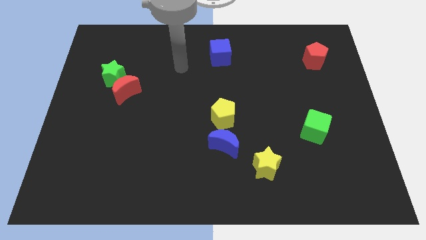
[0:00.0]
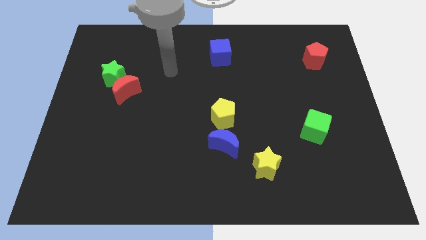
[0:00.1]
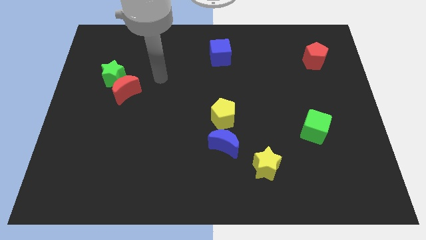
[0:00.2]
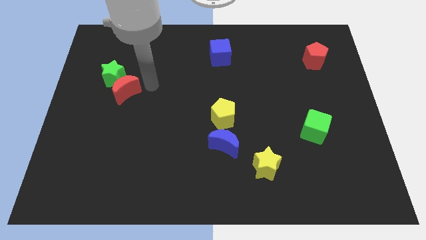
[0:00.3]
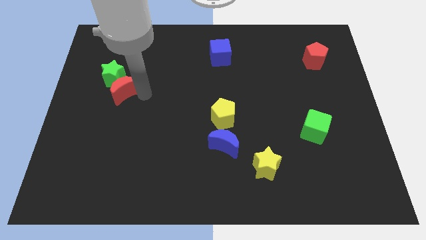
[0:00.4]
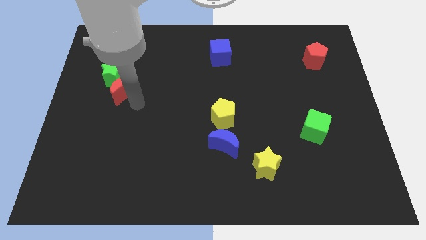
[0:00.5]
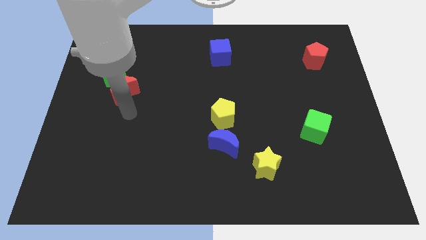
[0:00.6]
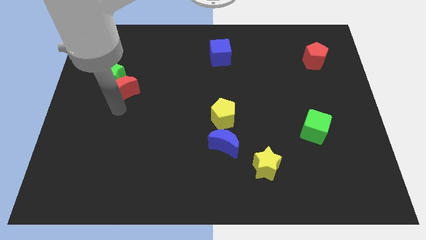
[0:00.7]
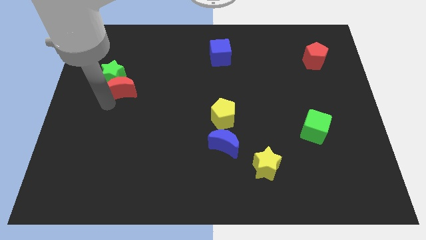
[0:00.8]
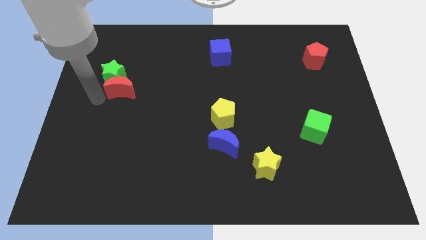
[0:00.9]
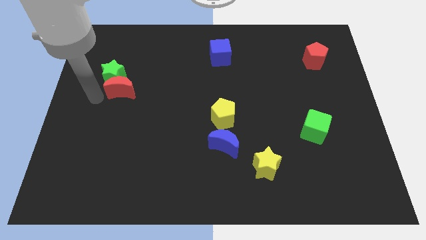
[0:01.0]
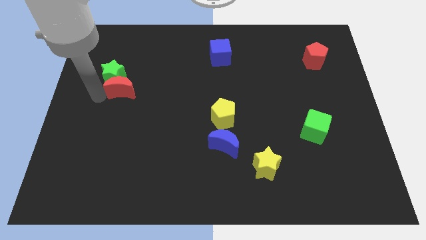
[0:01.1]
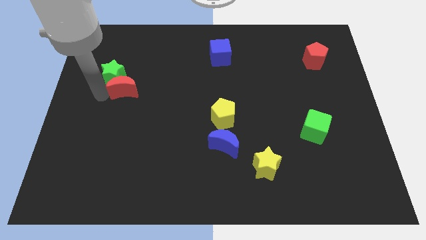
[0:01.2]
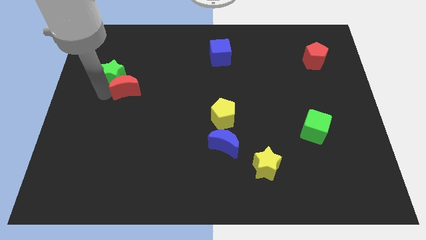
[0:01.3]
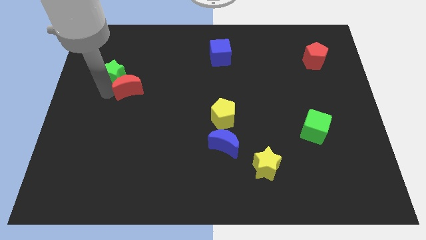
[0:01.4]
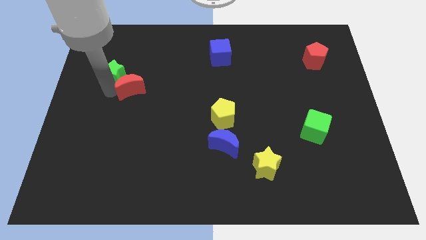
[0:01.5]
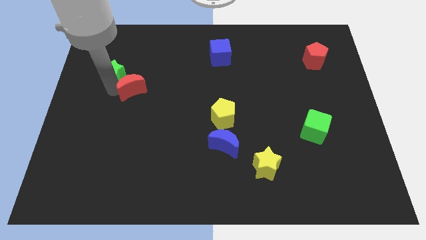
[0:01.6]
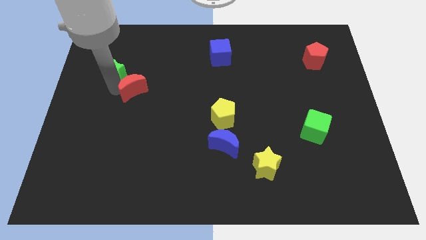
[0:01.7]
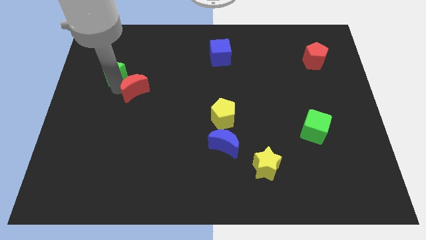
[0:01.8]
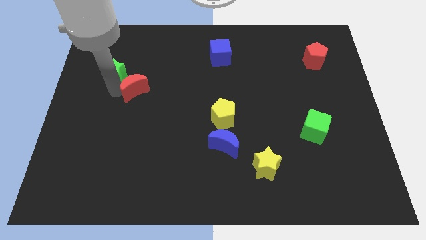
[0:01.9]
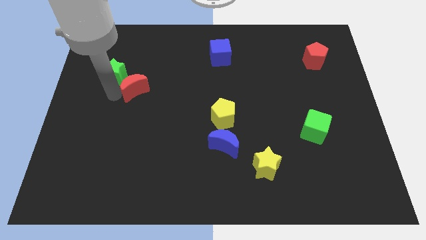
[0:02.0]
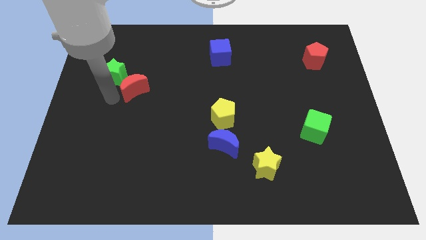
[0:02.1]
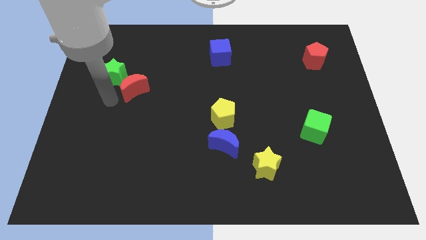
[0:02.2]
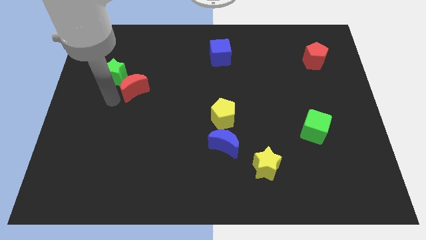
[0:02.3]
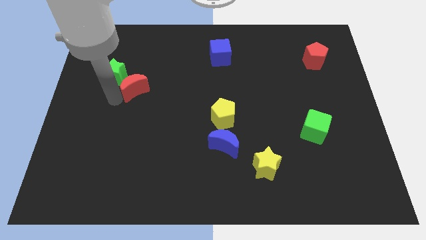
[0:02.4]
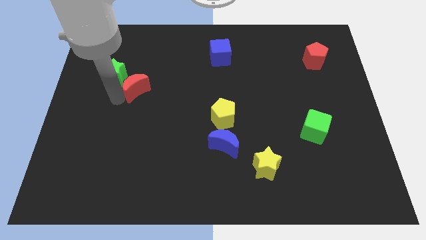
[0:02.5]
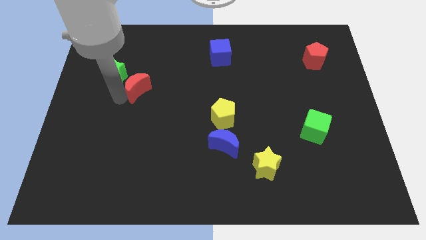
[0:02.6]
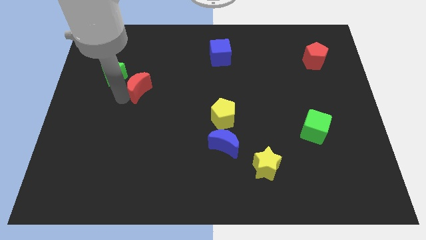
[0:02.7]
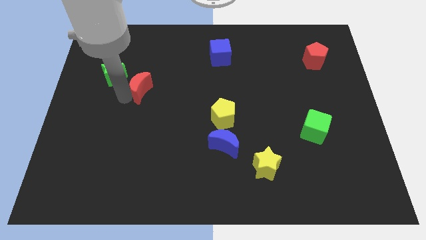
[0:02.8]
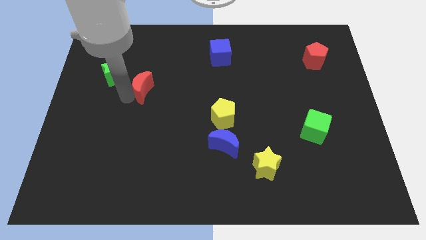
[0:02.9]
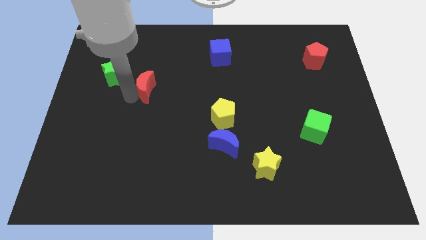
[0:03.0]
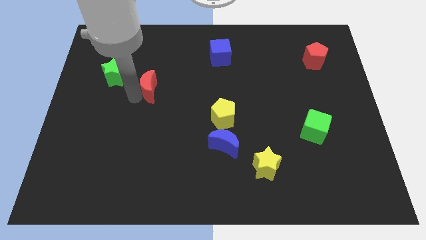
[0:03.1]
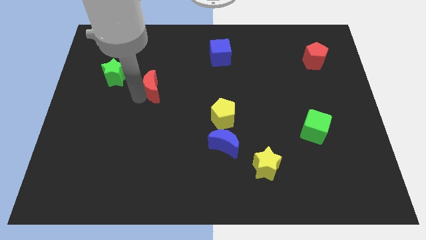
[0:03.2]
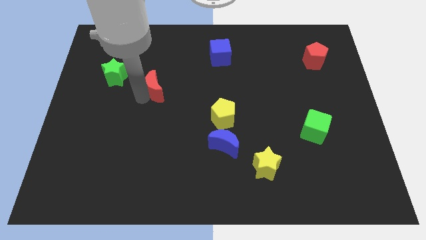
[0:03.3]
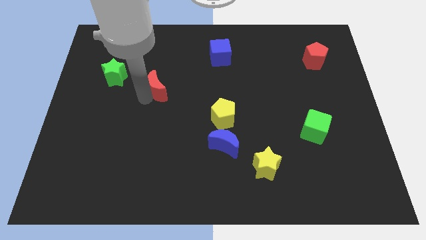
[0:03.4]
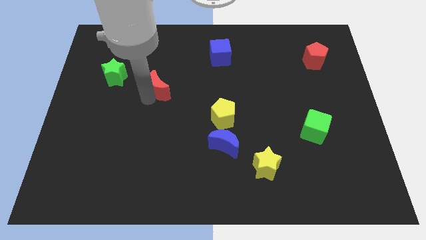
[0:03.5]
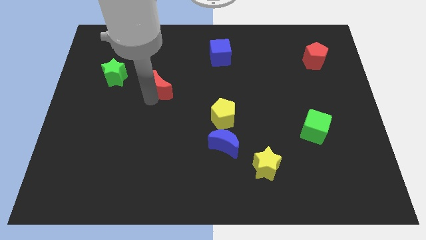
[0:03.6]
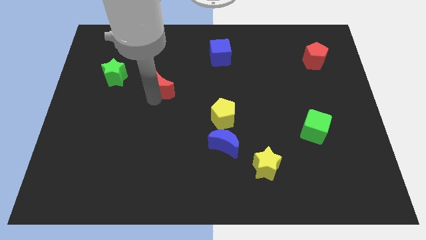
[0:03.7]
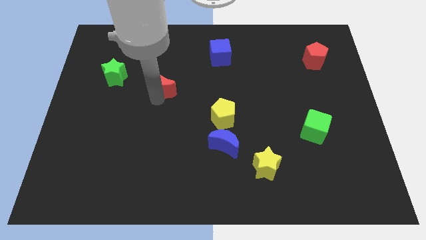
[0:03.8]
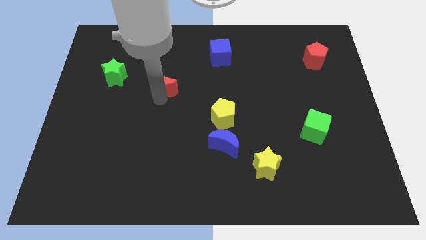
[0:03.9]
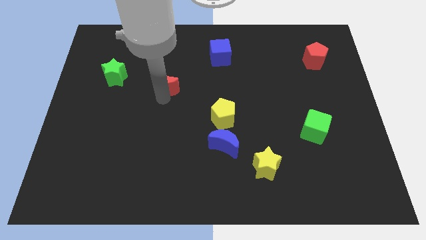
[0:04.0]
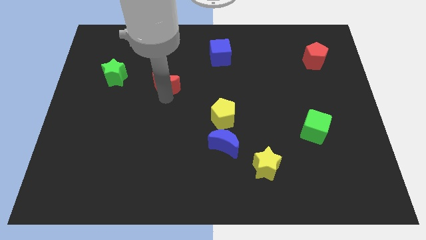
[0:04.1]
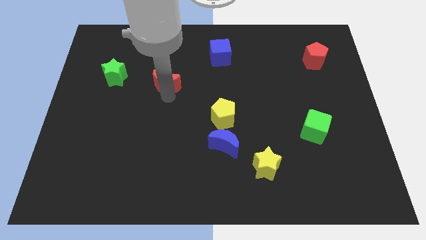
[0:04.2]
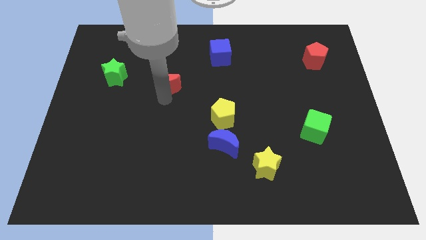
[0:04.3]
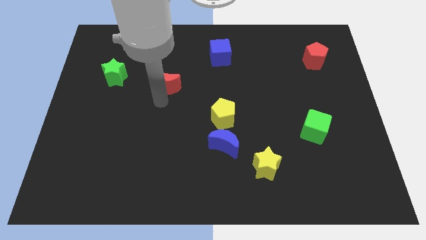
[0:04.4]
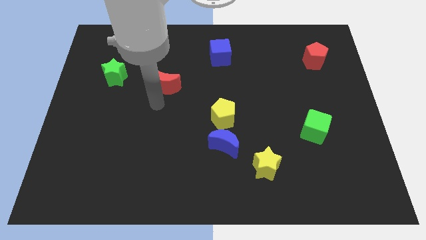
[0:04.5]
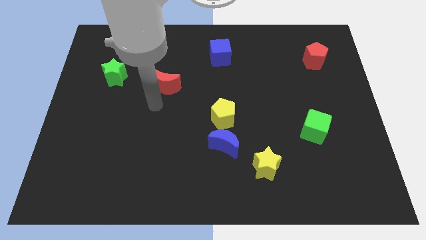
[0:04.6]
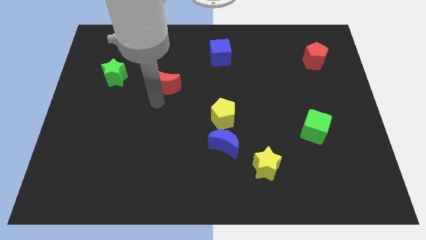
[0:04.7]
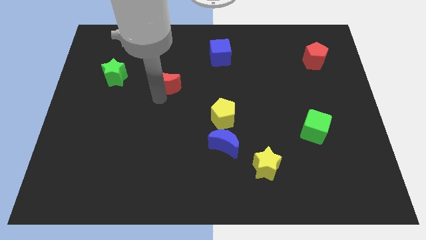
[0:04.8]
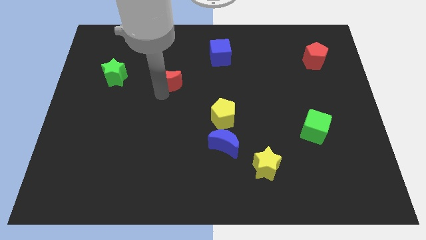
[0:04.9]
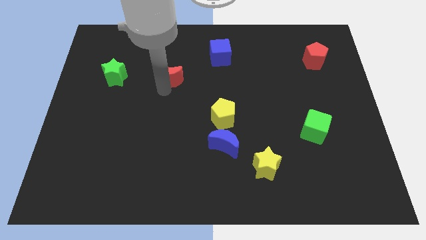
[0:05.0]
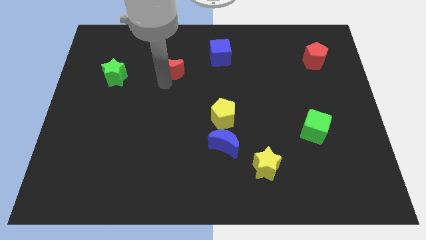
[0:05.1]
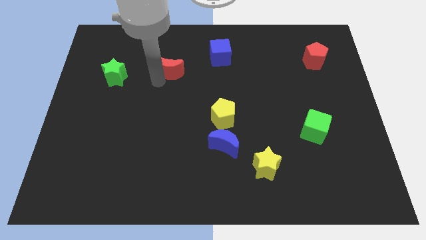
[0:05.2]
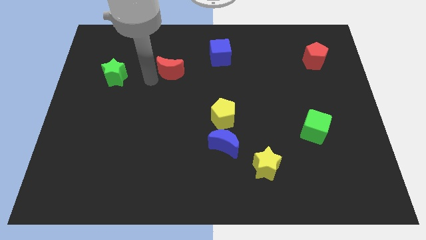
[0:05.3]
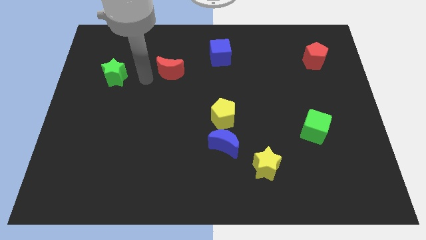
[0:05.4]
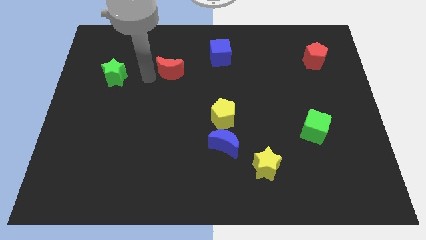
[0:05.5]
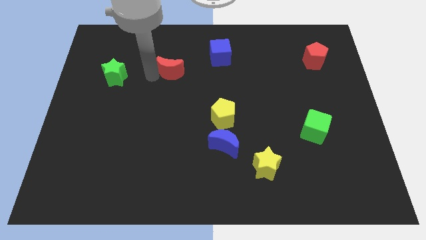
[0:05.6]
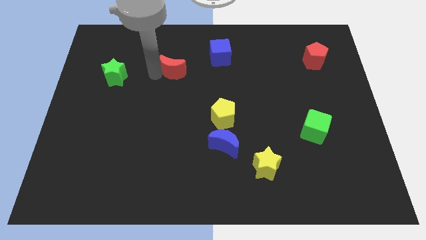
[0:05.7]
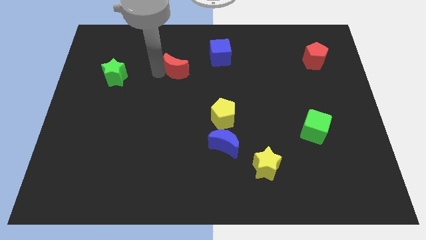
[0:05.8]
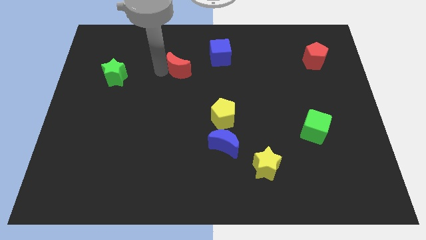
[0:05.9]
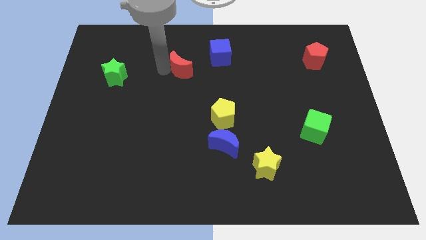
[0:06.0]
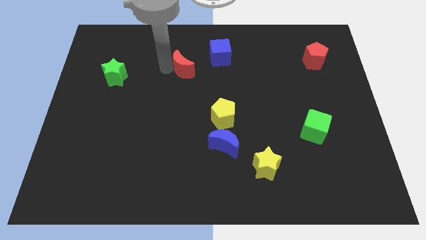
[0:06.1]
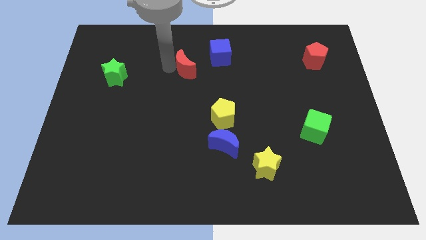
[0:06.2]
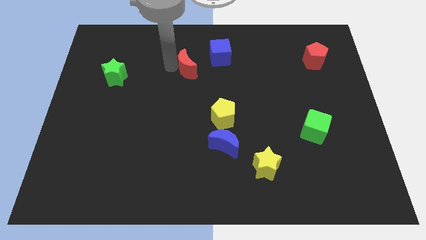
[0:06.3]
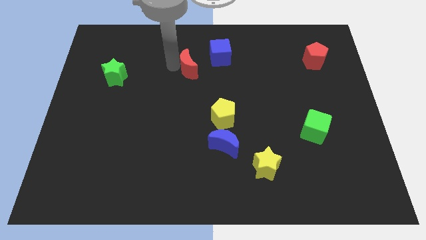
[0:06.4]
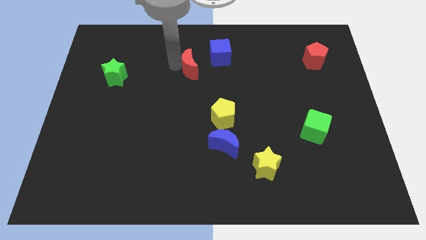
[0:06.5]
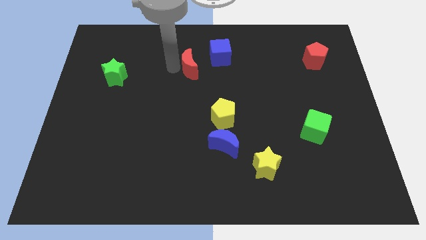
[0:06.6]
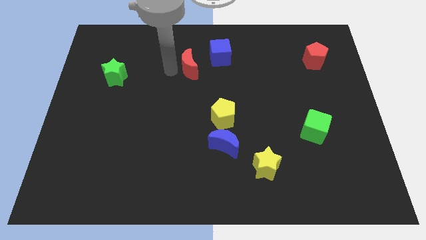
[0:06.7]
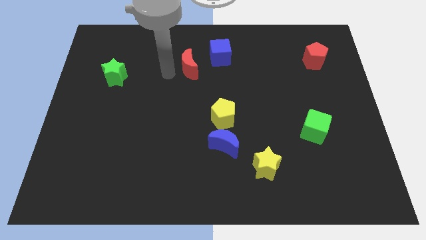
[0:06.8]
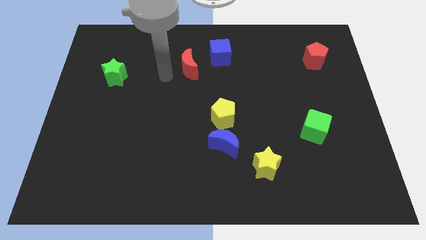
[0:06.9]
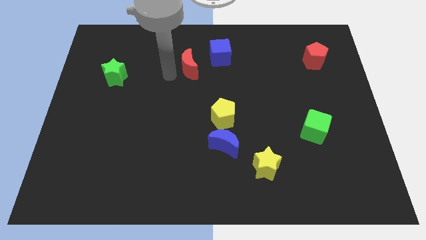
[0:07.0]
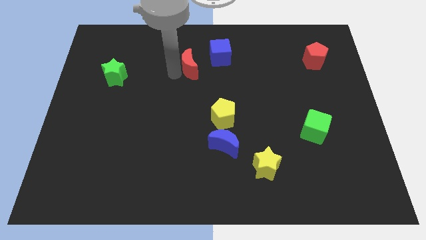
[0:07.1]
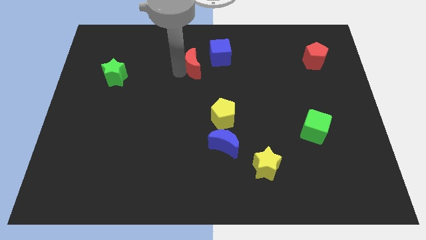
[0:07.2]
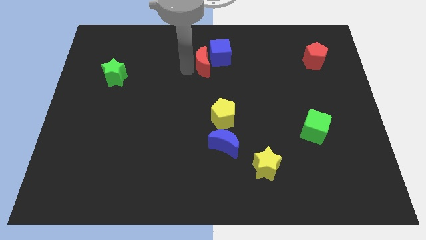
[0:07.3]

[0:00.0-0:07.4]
slide the red moon next to the blue cube
